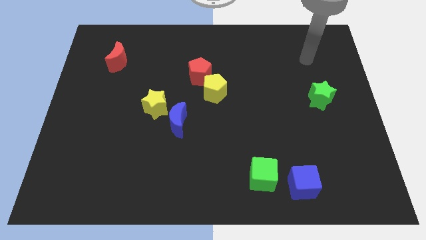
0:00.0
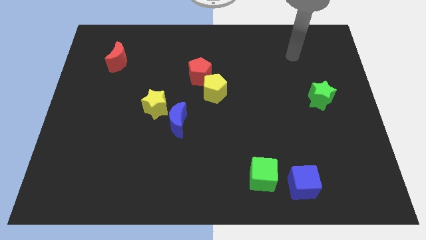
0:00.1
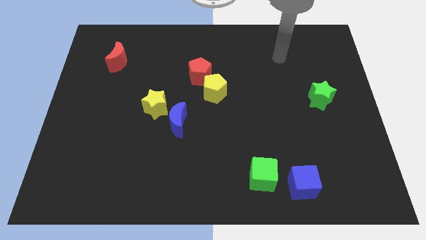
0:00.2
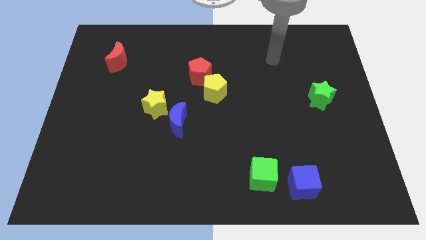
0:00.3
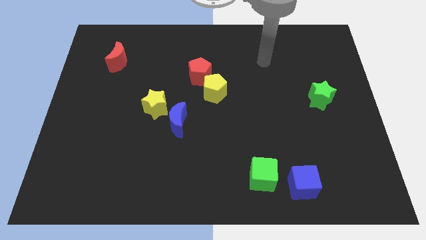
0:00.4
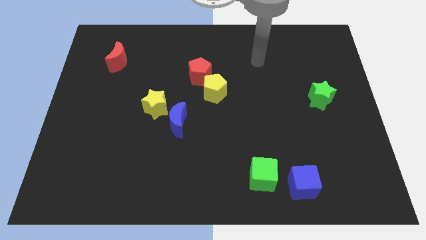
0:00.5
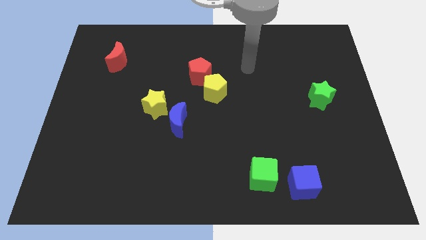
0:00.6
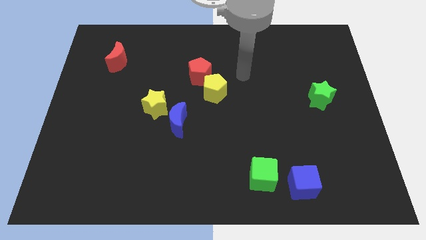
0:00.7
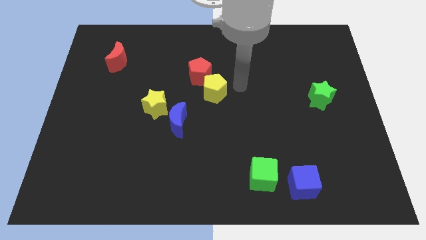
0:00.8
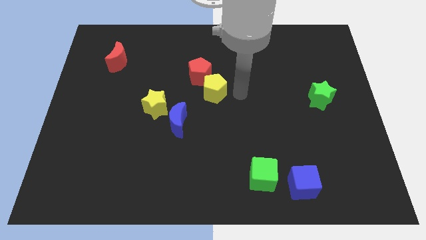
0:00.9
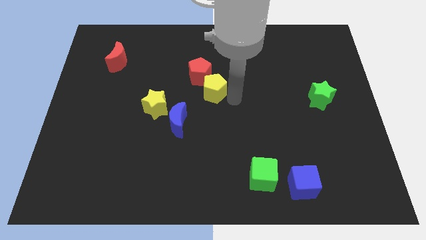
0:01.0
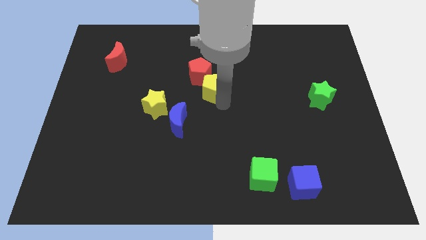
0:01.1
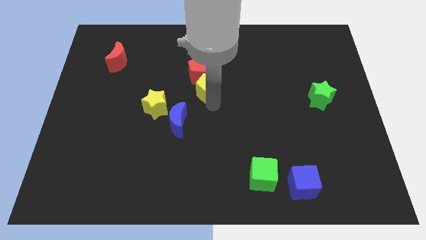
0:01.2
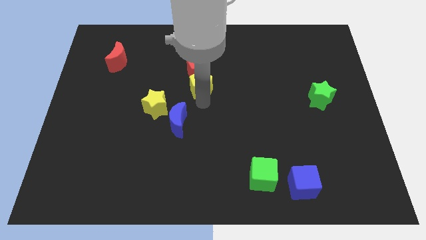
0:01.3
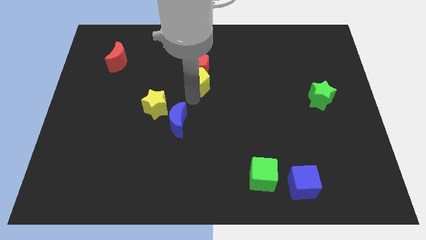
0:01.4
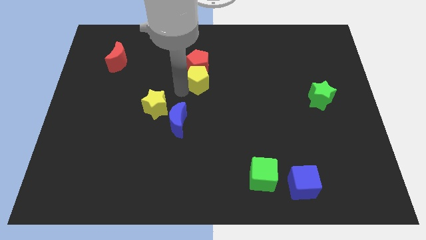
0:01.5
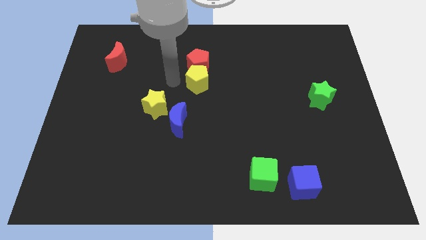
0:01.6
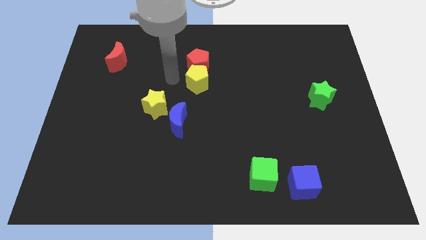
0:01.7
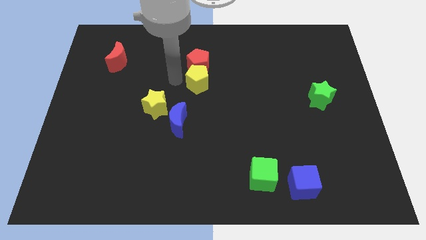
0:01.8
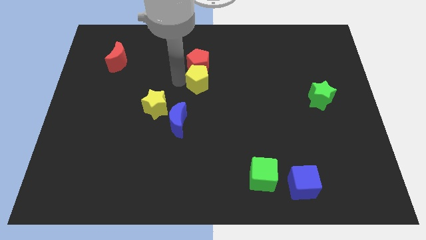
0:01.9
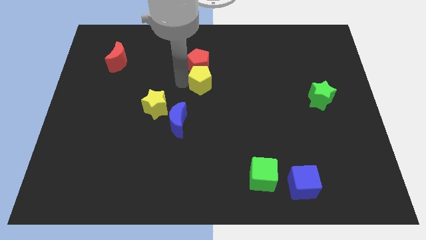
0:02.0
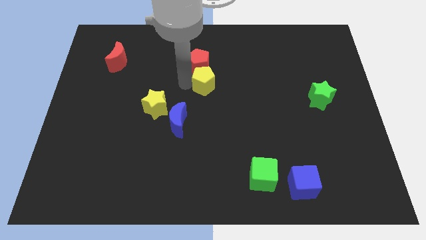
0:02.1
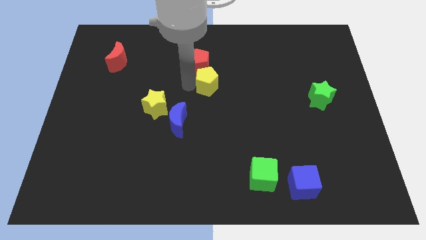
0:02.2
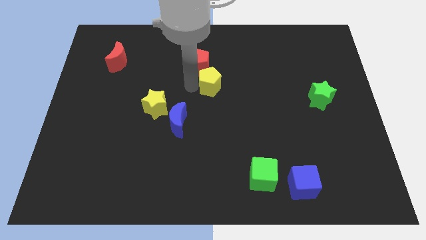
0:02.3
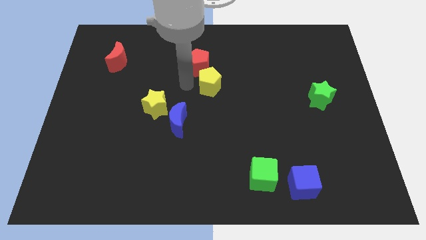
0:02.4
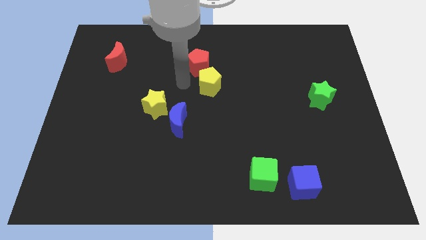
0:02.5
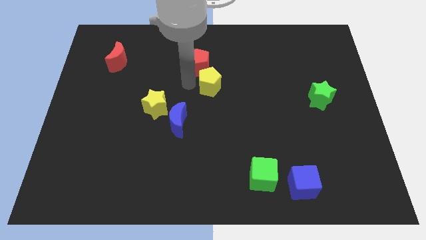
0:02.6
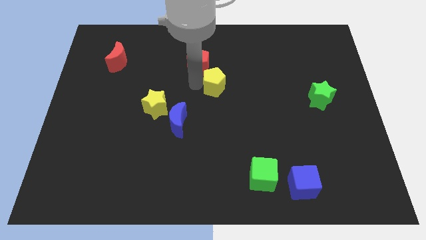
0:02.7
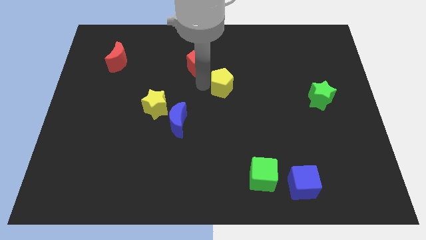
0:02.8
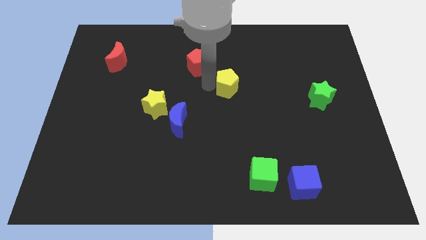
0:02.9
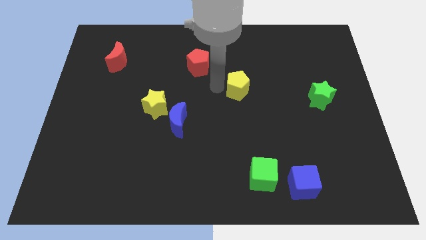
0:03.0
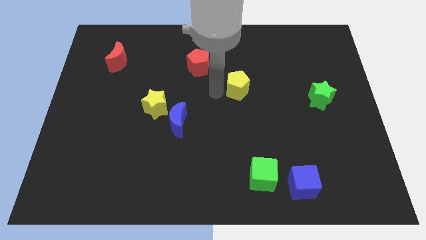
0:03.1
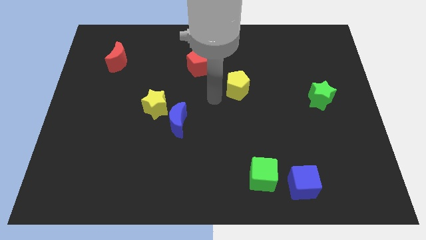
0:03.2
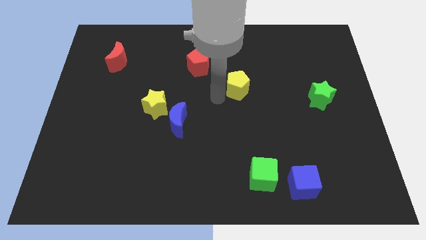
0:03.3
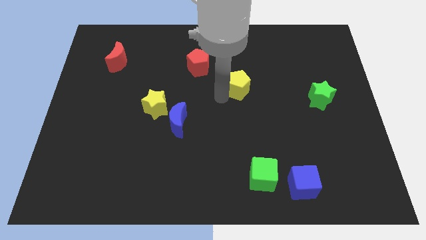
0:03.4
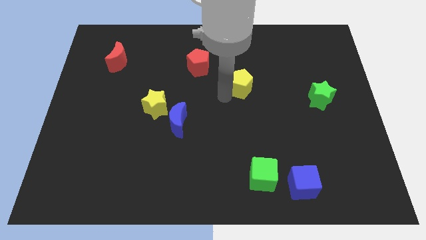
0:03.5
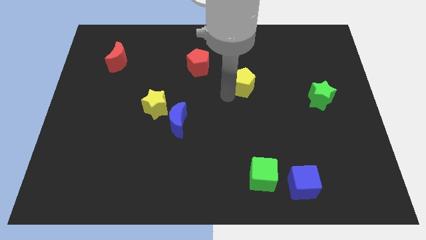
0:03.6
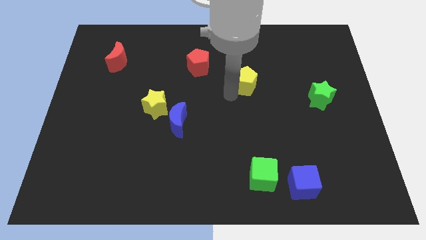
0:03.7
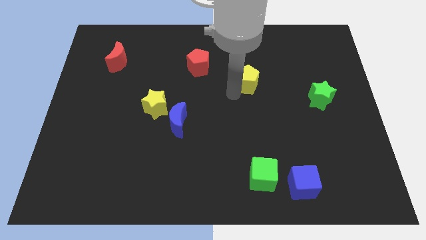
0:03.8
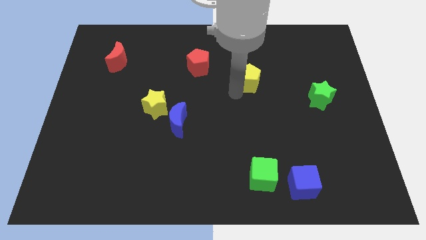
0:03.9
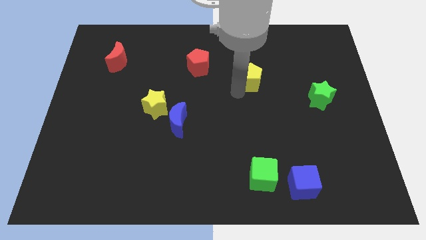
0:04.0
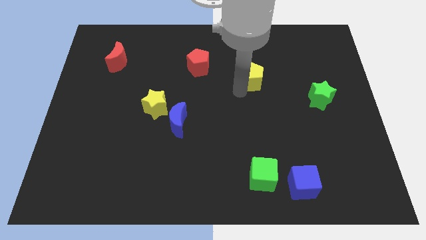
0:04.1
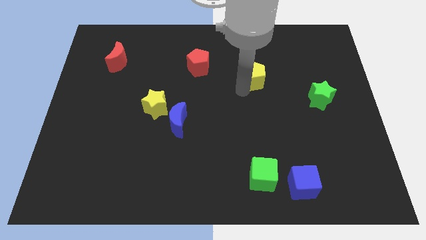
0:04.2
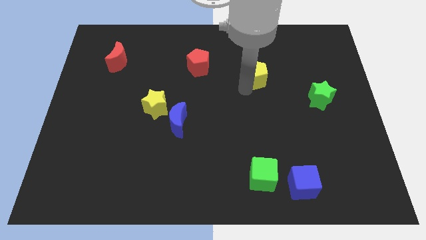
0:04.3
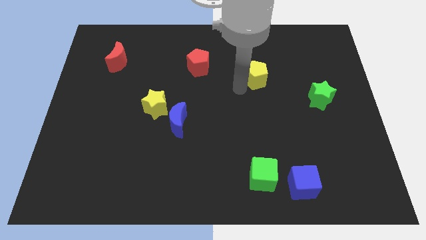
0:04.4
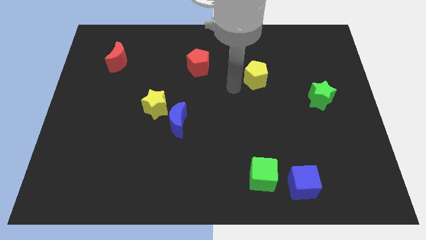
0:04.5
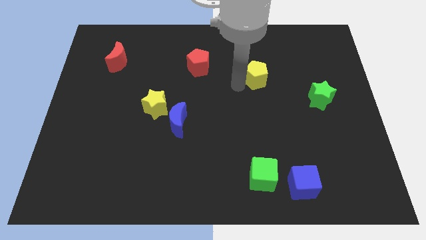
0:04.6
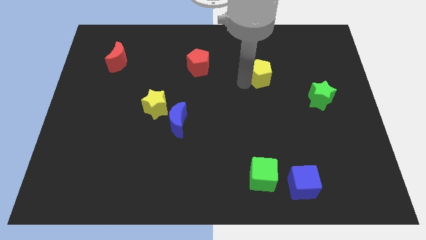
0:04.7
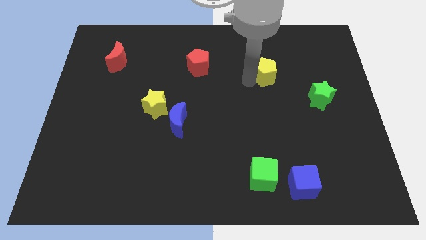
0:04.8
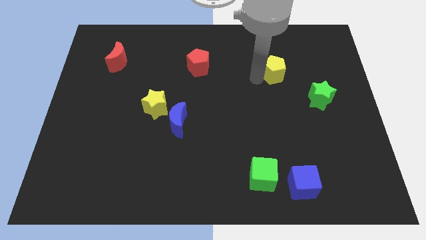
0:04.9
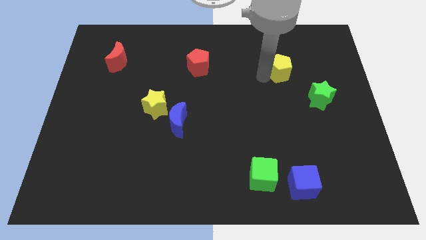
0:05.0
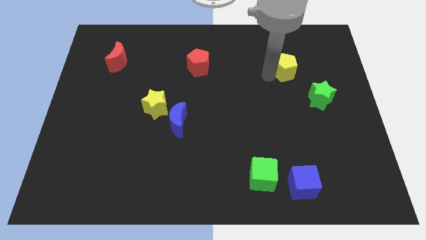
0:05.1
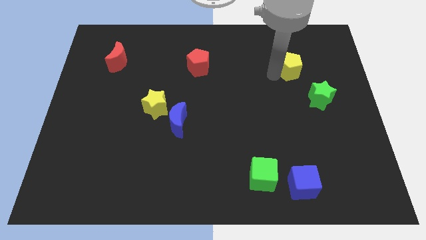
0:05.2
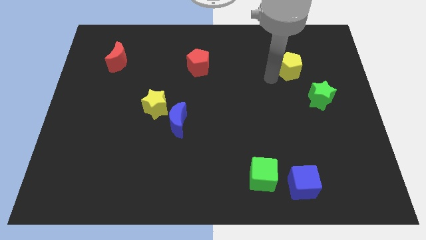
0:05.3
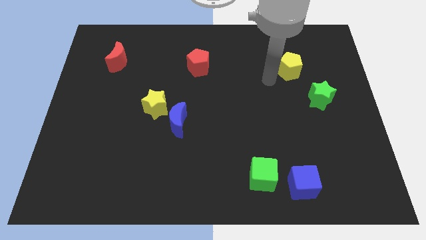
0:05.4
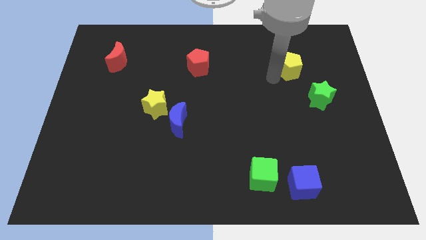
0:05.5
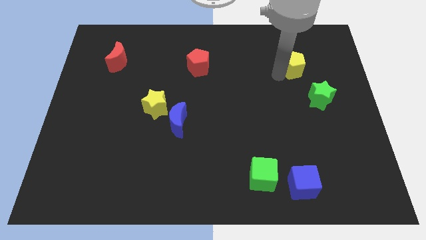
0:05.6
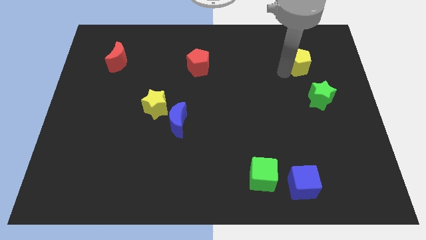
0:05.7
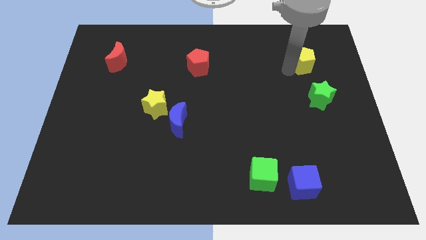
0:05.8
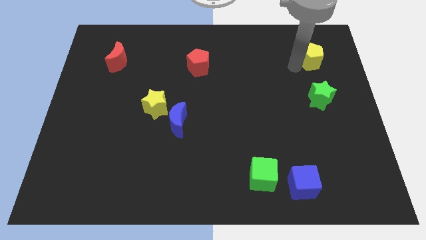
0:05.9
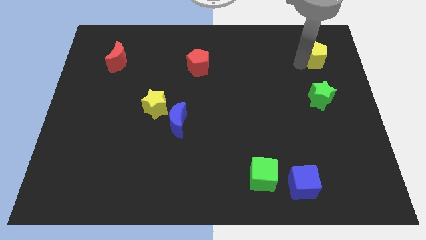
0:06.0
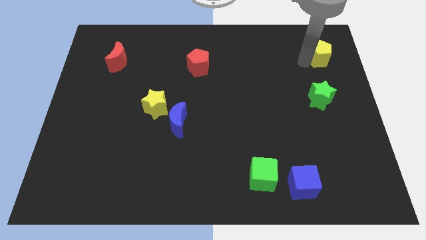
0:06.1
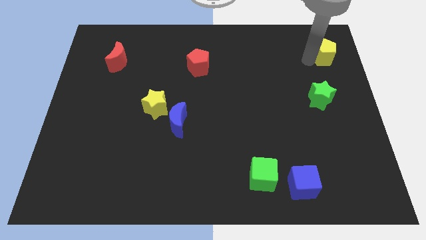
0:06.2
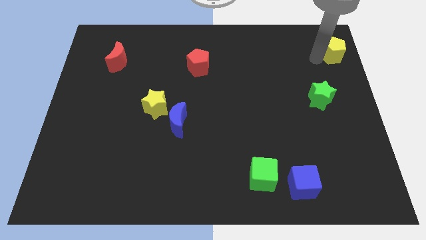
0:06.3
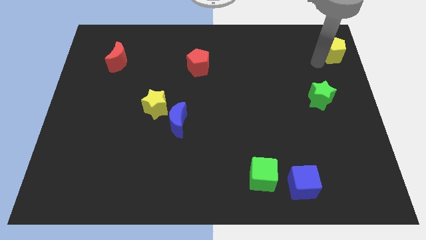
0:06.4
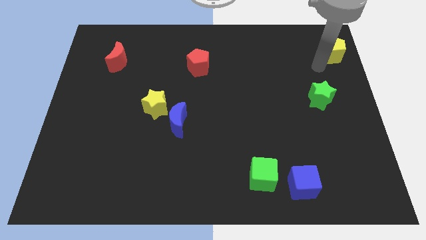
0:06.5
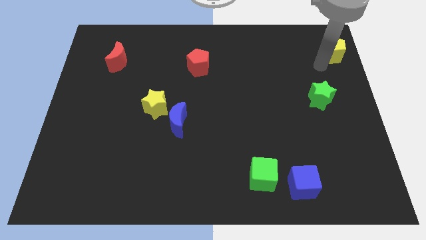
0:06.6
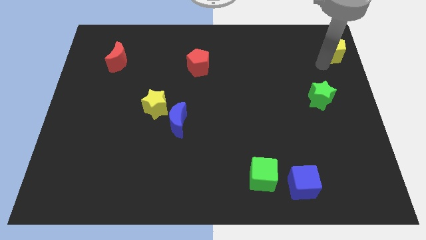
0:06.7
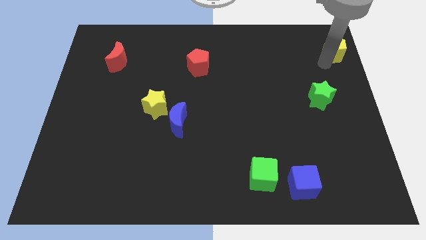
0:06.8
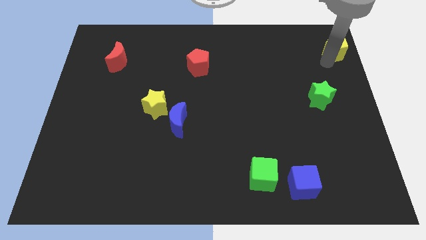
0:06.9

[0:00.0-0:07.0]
slide the yellow pentagon to the top right of the board
